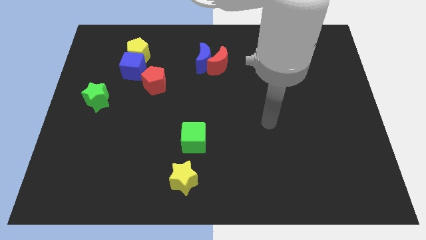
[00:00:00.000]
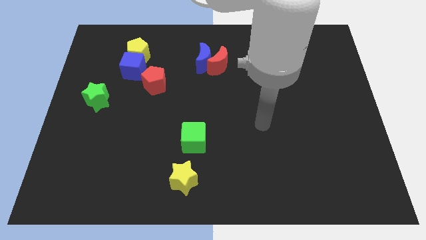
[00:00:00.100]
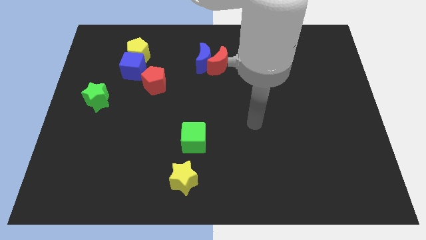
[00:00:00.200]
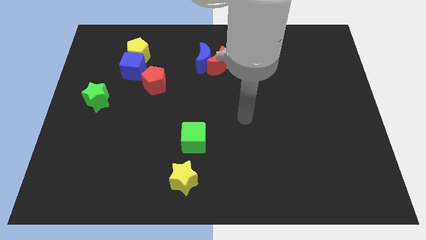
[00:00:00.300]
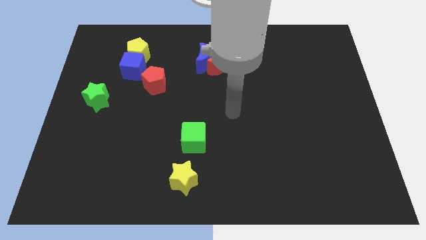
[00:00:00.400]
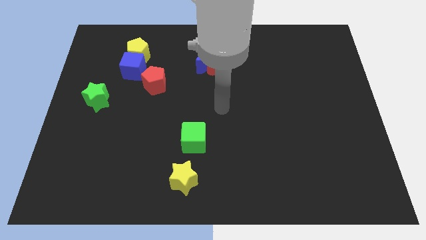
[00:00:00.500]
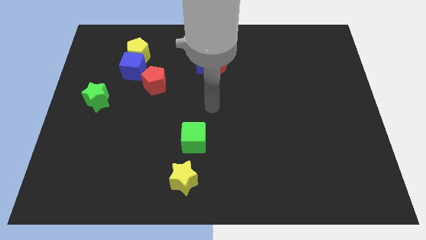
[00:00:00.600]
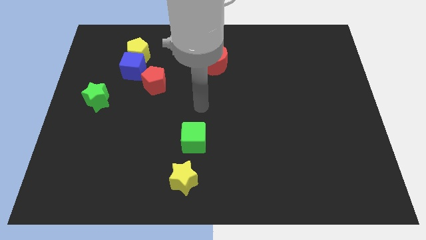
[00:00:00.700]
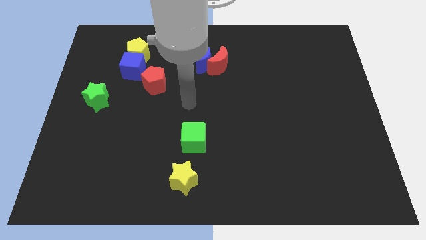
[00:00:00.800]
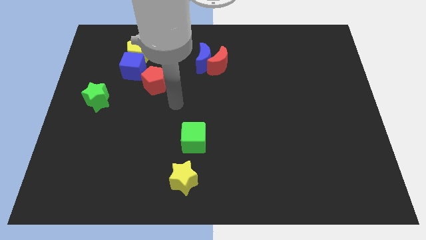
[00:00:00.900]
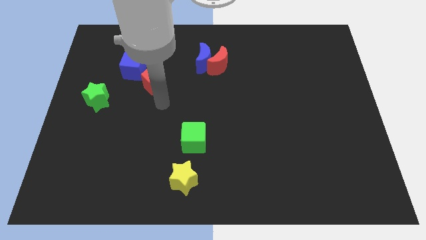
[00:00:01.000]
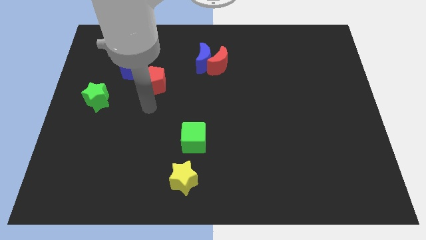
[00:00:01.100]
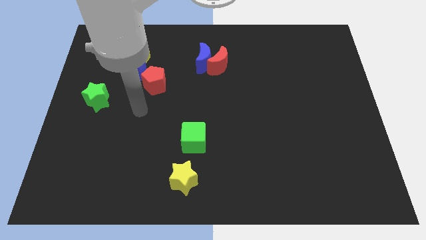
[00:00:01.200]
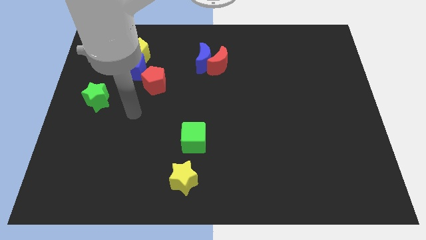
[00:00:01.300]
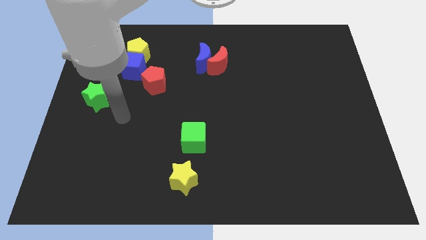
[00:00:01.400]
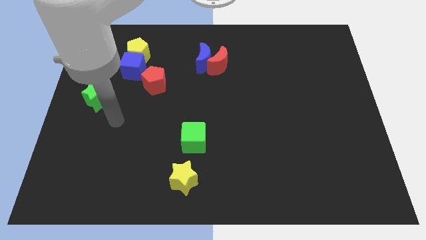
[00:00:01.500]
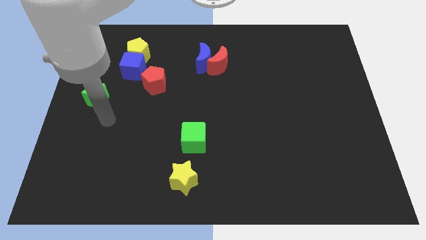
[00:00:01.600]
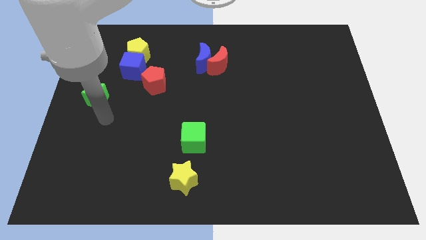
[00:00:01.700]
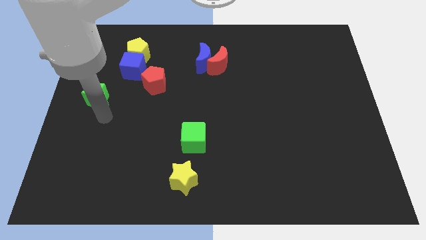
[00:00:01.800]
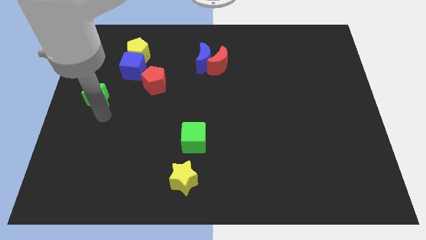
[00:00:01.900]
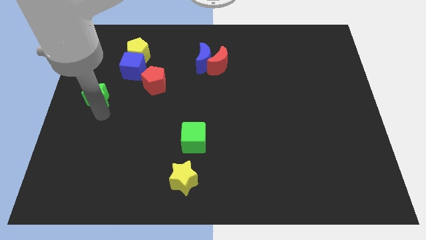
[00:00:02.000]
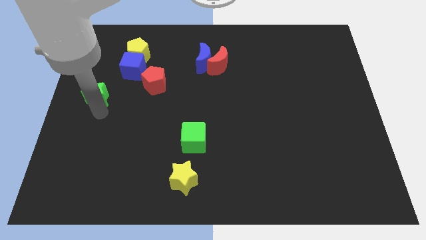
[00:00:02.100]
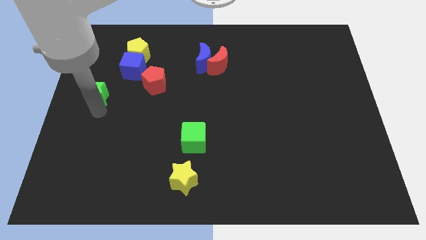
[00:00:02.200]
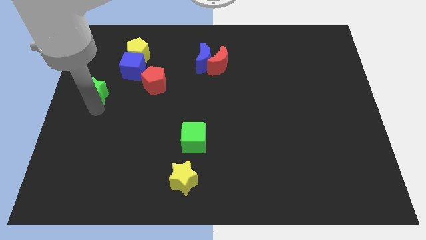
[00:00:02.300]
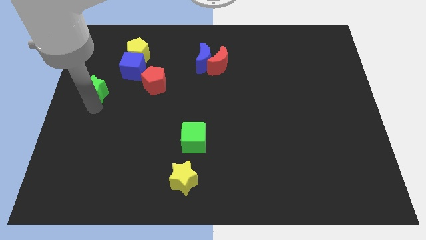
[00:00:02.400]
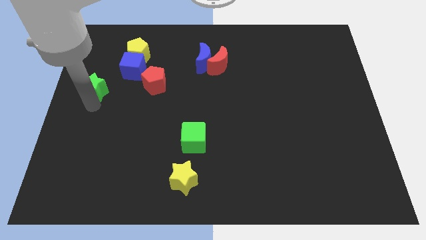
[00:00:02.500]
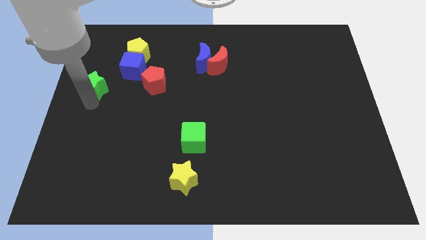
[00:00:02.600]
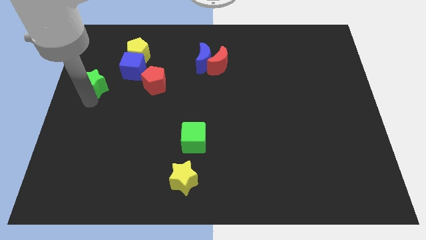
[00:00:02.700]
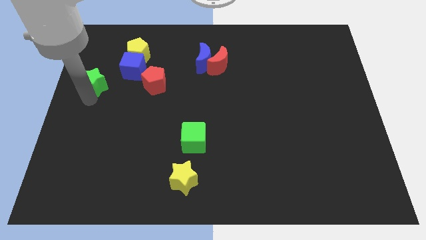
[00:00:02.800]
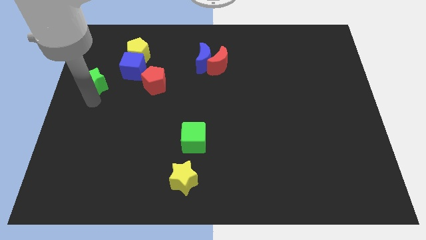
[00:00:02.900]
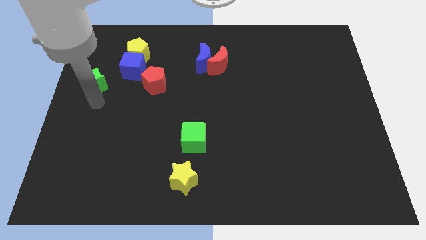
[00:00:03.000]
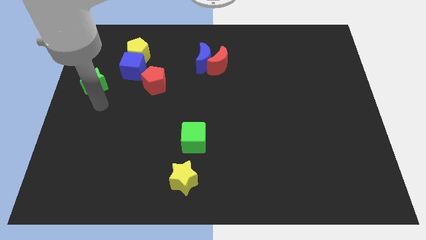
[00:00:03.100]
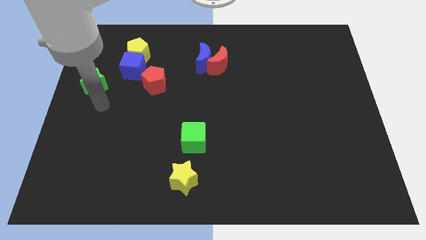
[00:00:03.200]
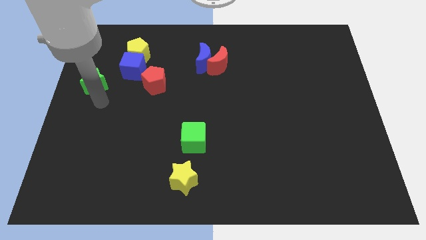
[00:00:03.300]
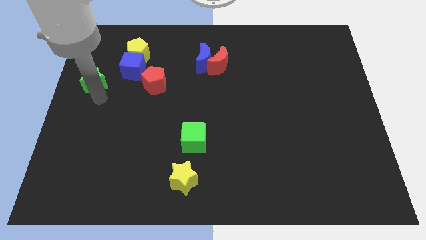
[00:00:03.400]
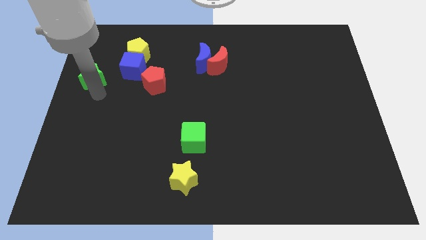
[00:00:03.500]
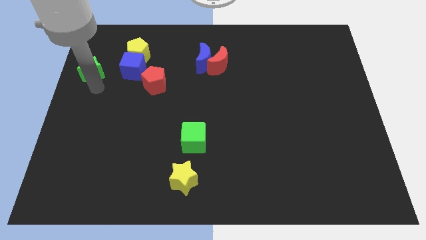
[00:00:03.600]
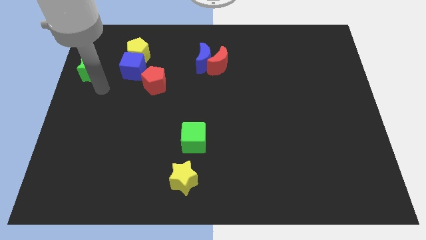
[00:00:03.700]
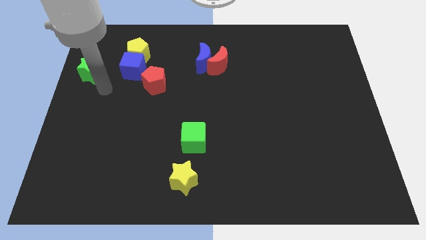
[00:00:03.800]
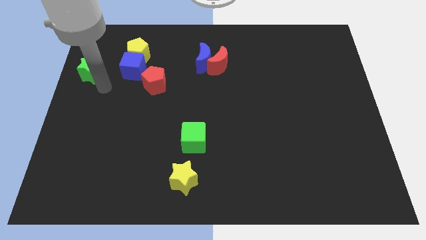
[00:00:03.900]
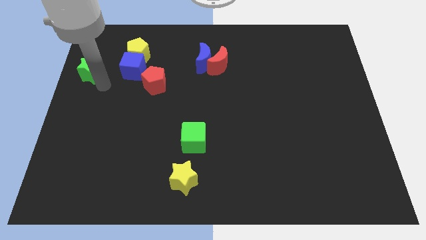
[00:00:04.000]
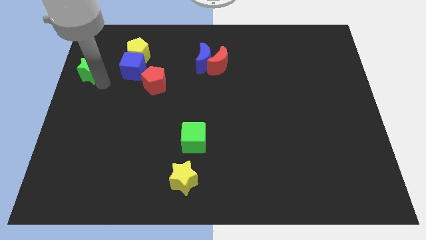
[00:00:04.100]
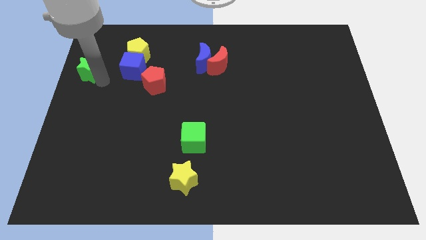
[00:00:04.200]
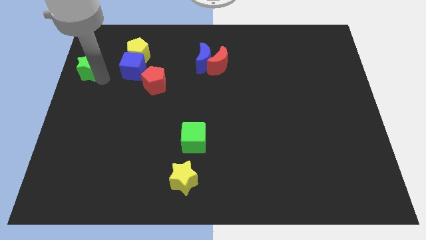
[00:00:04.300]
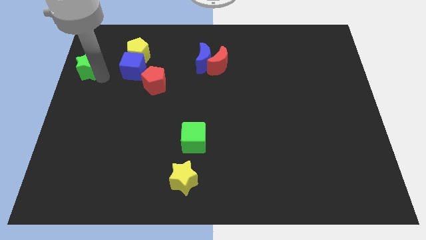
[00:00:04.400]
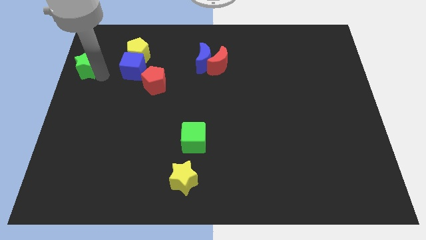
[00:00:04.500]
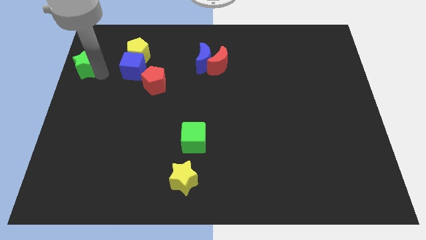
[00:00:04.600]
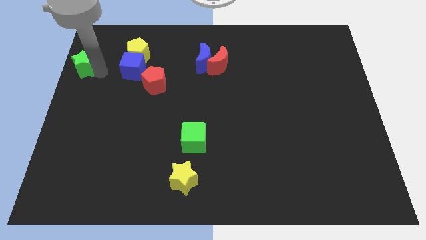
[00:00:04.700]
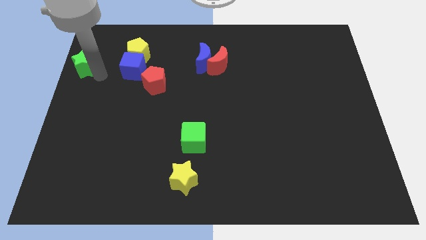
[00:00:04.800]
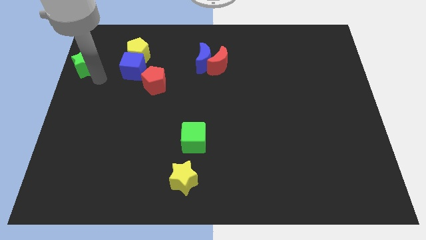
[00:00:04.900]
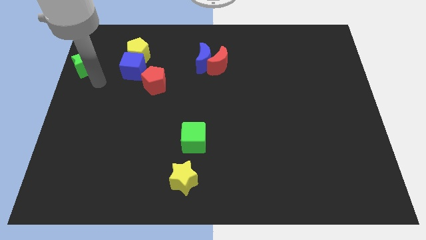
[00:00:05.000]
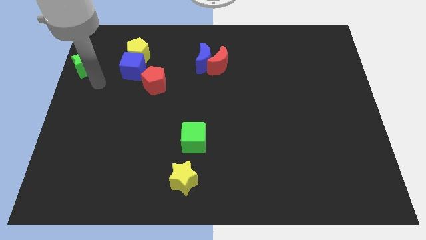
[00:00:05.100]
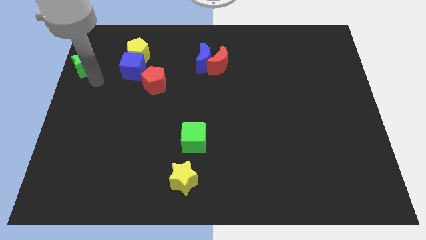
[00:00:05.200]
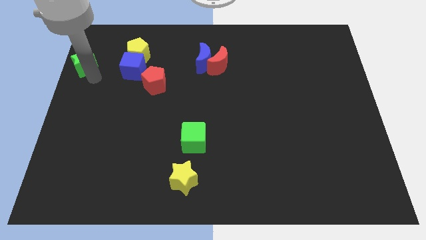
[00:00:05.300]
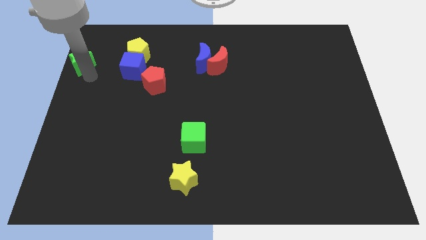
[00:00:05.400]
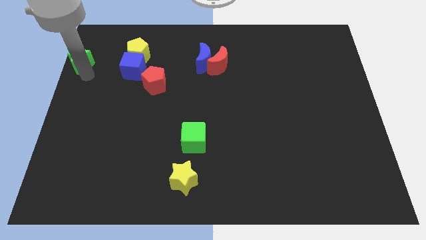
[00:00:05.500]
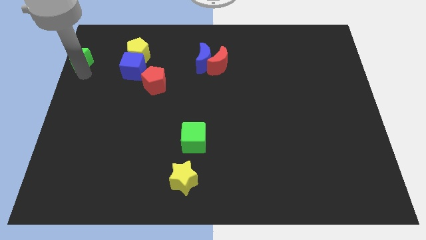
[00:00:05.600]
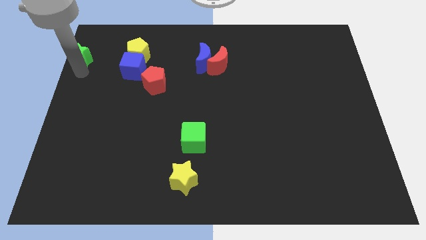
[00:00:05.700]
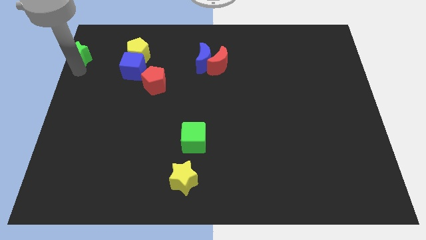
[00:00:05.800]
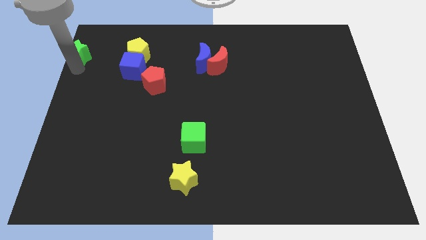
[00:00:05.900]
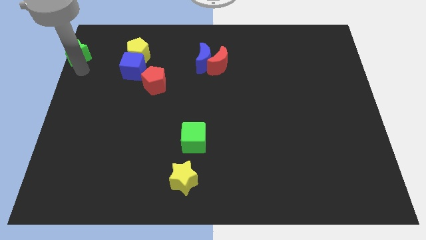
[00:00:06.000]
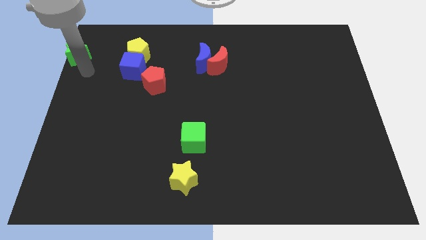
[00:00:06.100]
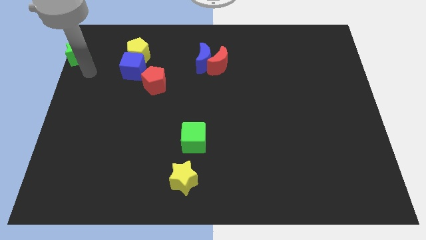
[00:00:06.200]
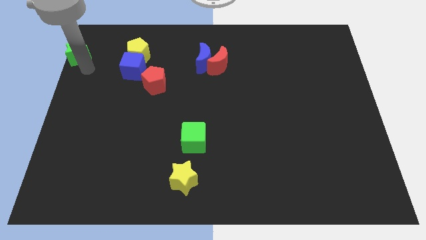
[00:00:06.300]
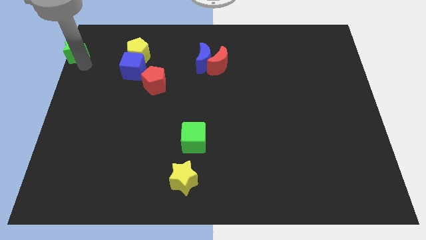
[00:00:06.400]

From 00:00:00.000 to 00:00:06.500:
push the green star to the upper left corner
